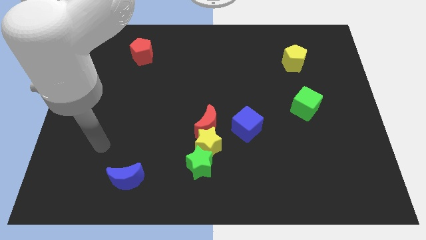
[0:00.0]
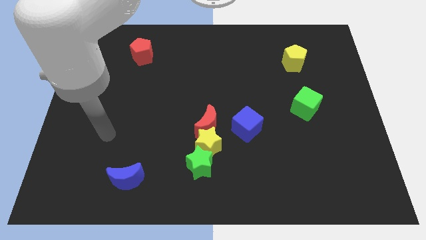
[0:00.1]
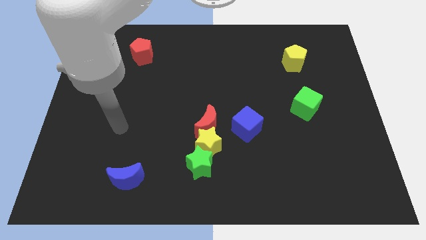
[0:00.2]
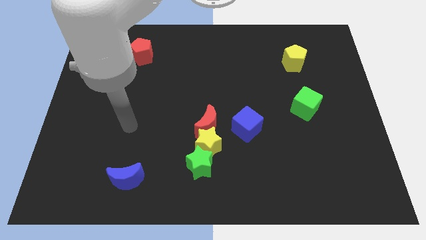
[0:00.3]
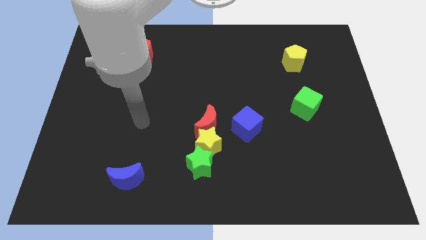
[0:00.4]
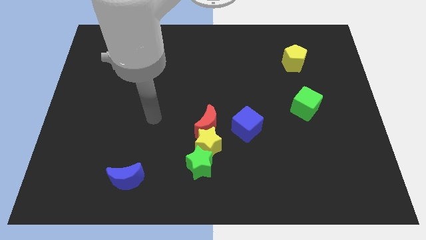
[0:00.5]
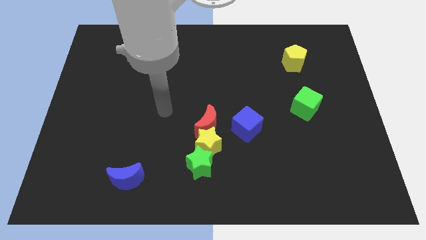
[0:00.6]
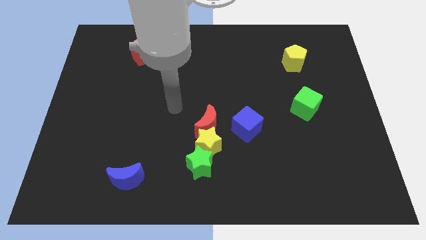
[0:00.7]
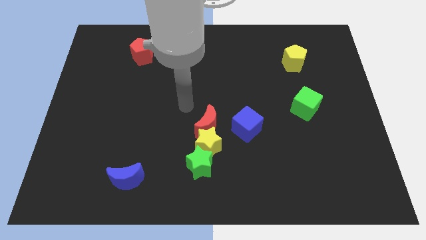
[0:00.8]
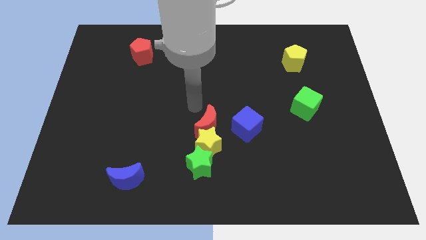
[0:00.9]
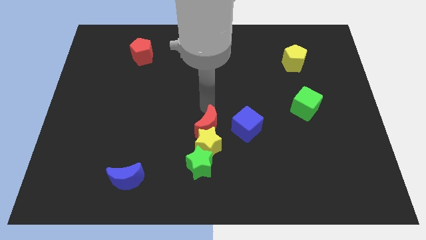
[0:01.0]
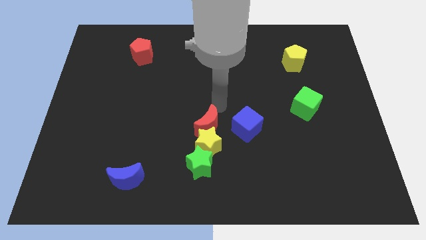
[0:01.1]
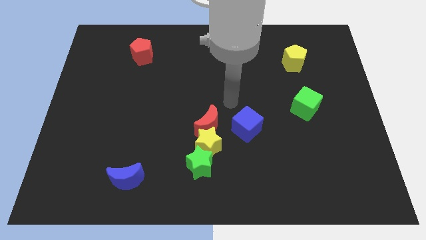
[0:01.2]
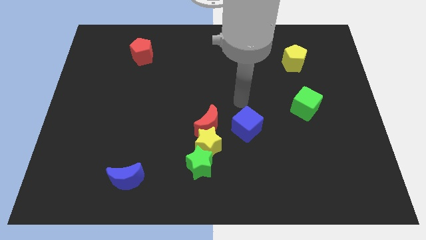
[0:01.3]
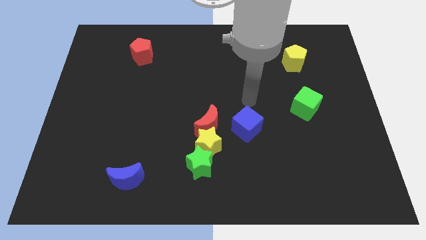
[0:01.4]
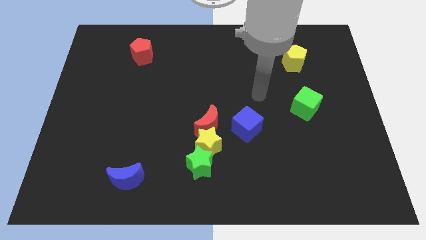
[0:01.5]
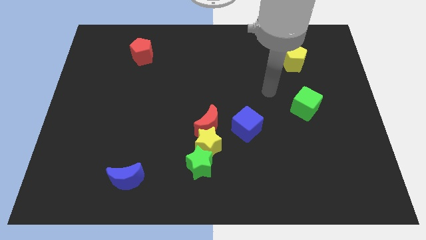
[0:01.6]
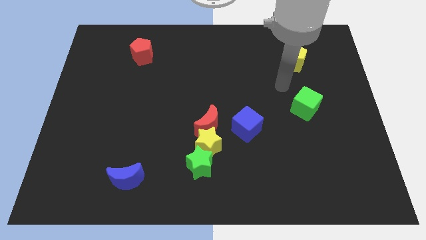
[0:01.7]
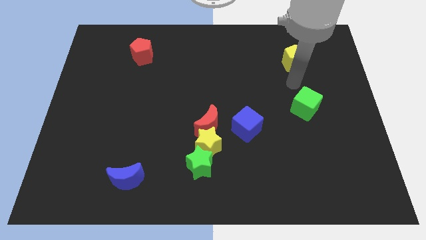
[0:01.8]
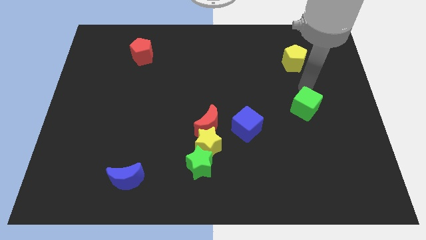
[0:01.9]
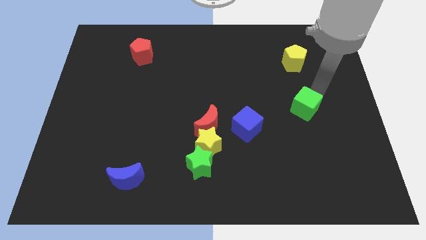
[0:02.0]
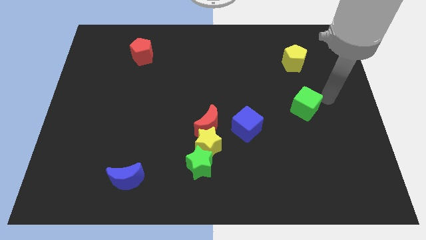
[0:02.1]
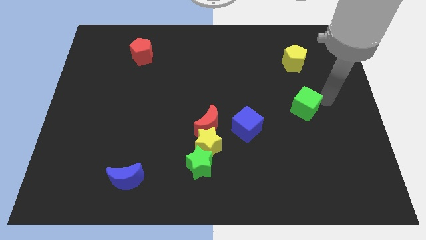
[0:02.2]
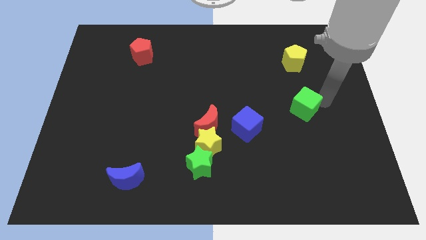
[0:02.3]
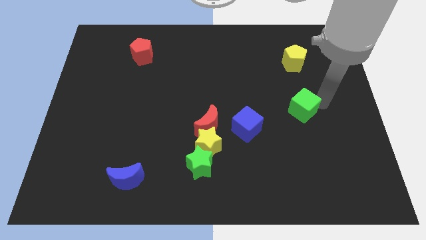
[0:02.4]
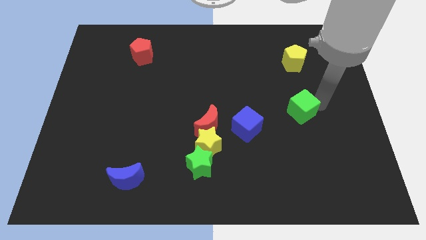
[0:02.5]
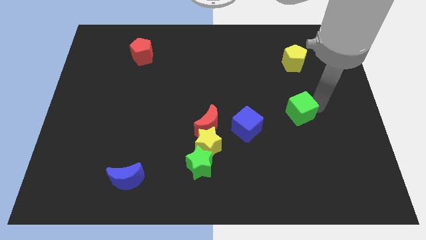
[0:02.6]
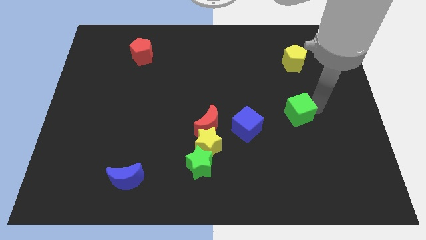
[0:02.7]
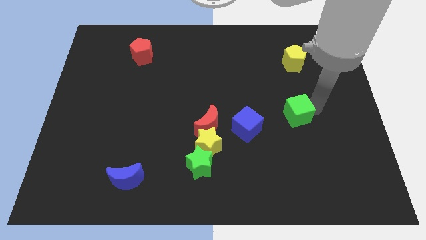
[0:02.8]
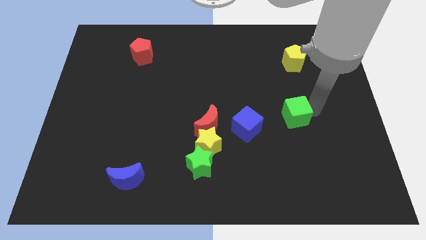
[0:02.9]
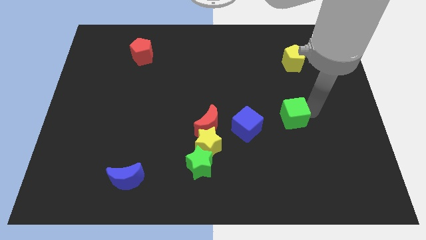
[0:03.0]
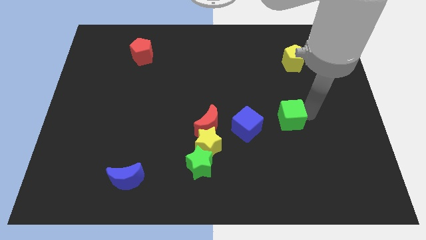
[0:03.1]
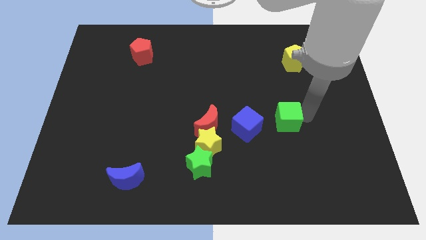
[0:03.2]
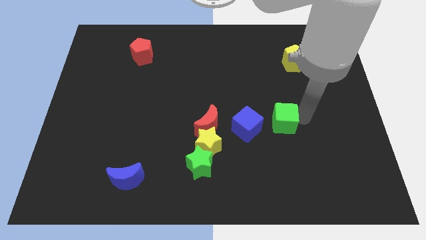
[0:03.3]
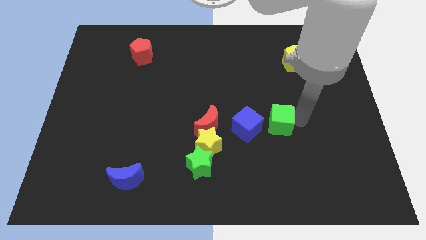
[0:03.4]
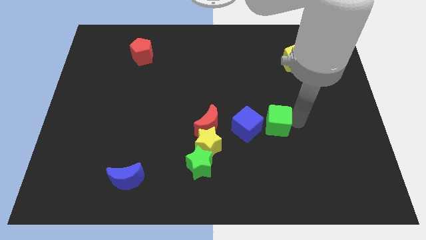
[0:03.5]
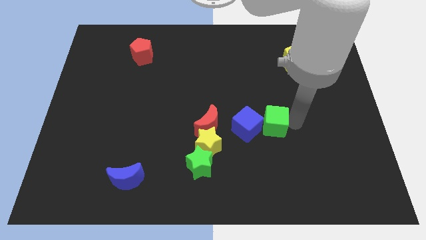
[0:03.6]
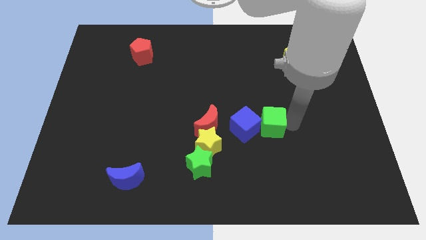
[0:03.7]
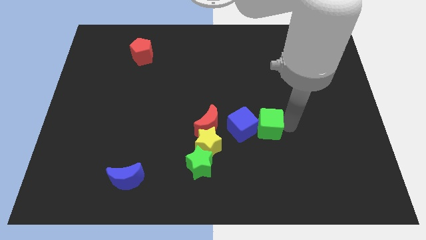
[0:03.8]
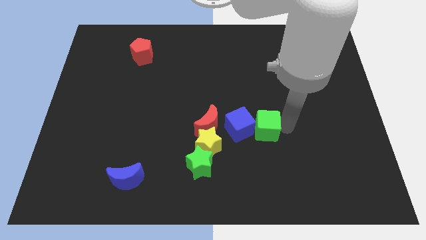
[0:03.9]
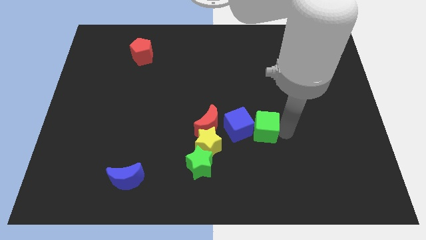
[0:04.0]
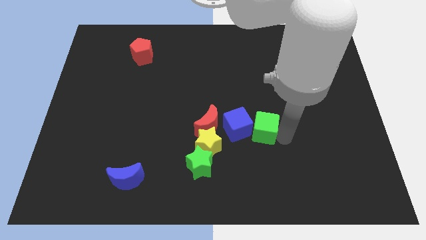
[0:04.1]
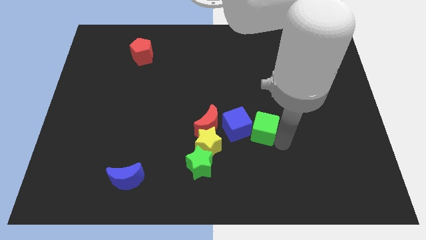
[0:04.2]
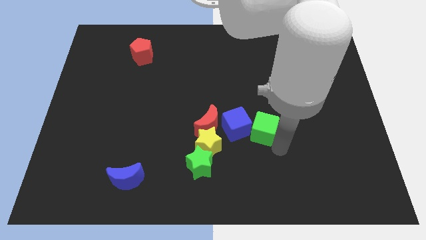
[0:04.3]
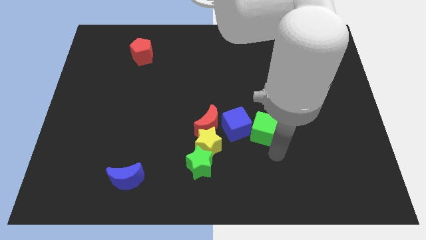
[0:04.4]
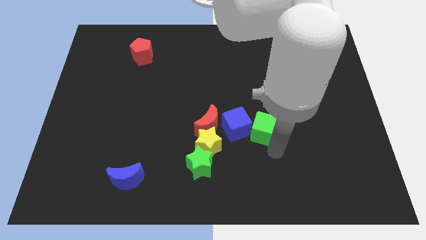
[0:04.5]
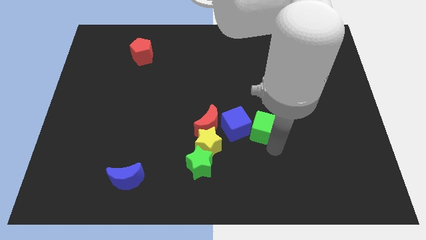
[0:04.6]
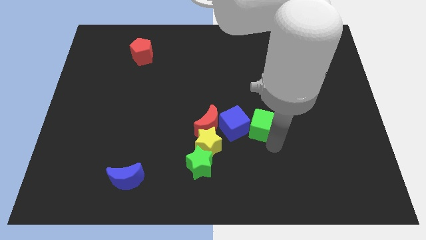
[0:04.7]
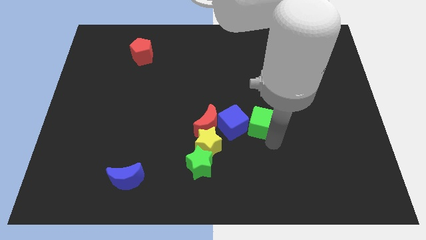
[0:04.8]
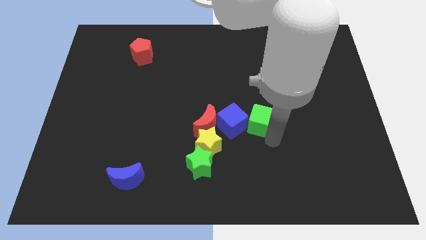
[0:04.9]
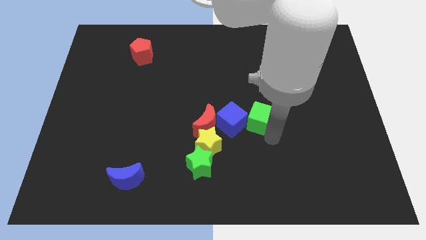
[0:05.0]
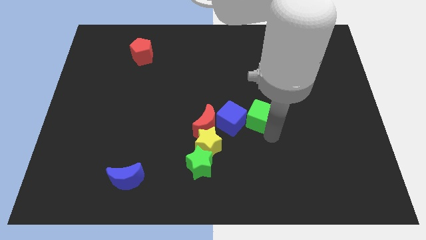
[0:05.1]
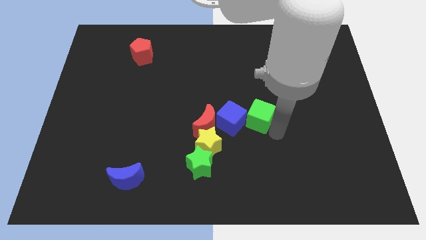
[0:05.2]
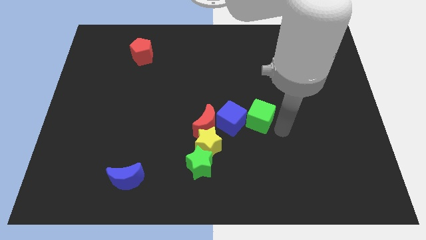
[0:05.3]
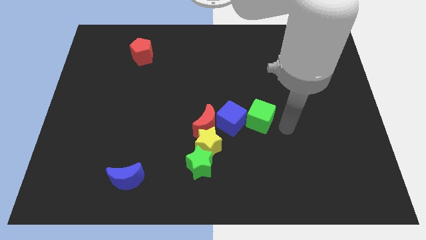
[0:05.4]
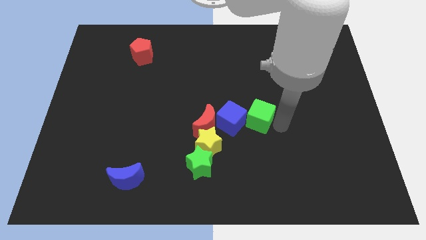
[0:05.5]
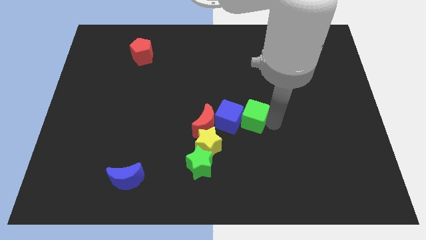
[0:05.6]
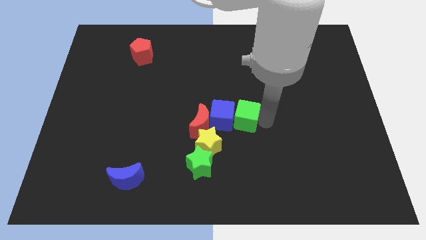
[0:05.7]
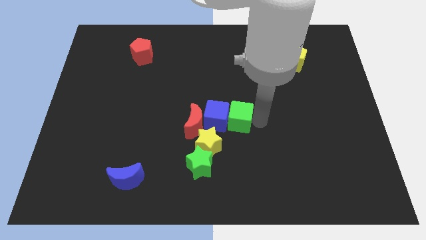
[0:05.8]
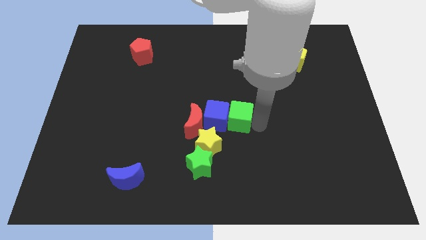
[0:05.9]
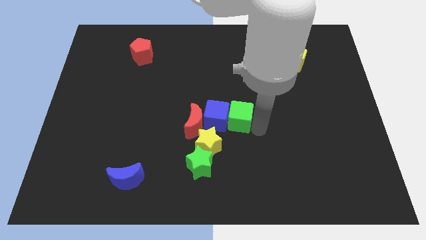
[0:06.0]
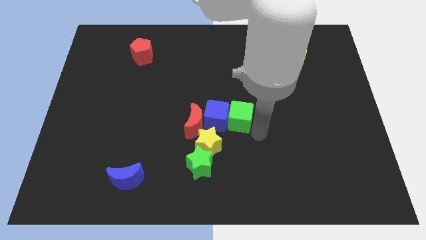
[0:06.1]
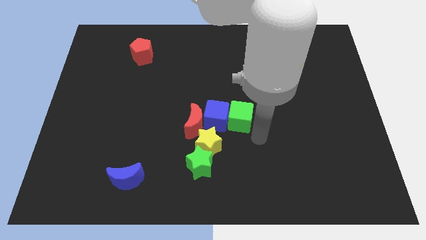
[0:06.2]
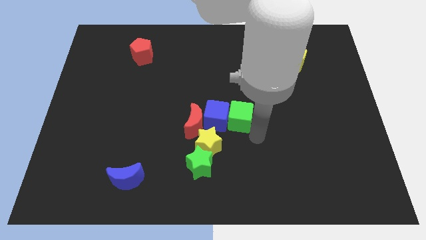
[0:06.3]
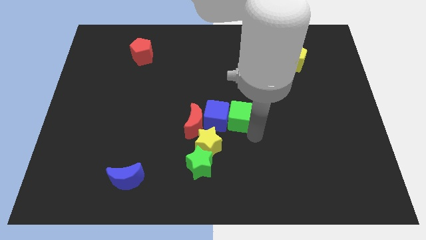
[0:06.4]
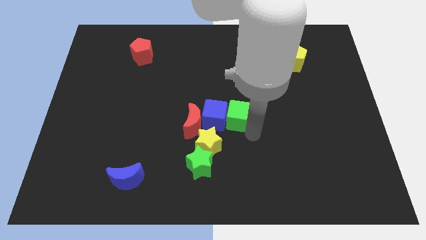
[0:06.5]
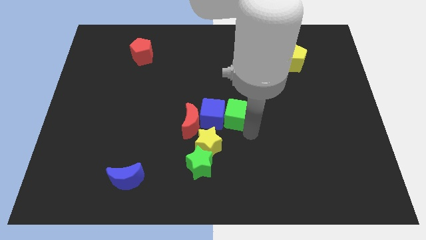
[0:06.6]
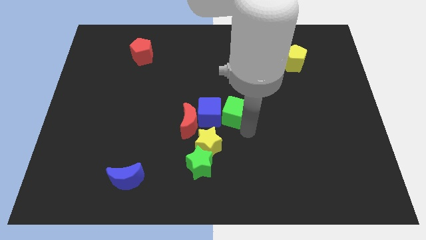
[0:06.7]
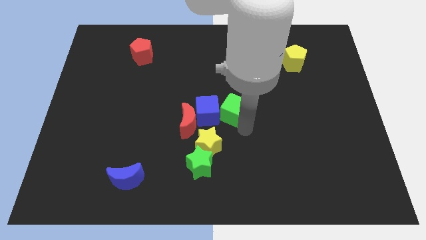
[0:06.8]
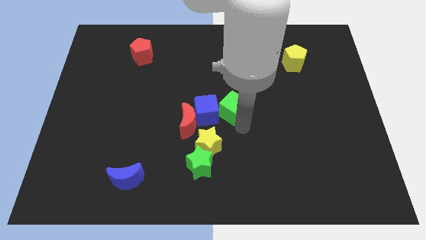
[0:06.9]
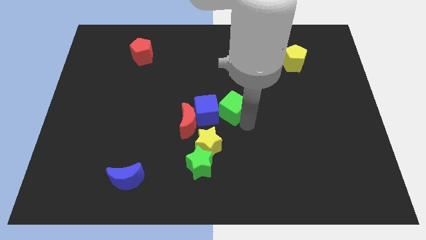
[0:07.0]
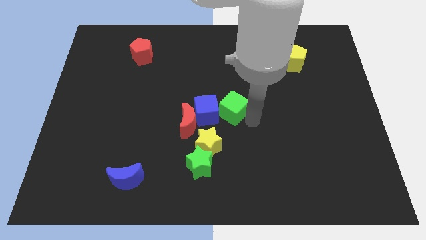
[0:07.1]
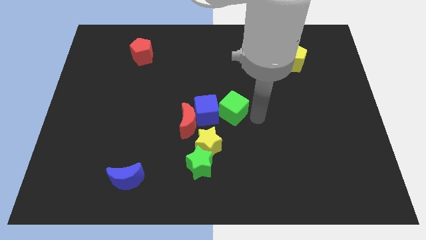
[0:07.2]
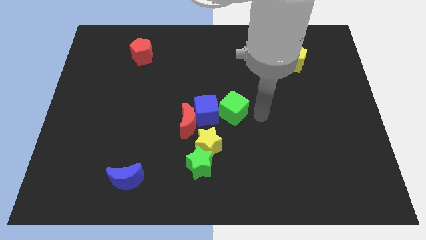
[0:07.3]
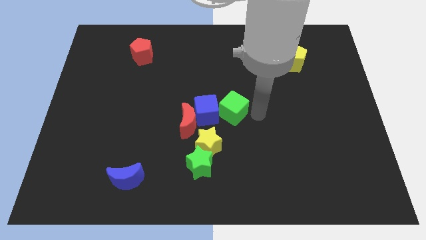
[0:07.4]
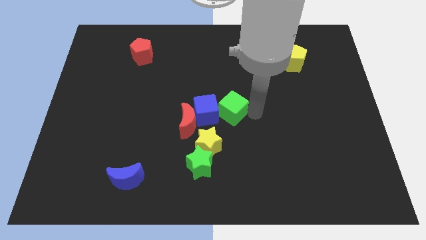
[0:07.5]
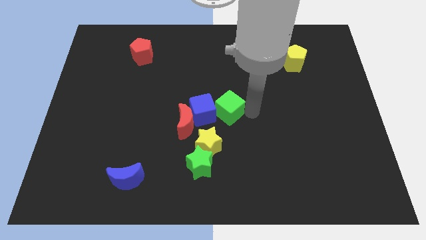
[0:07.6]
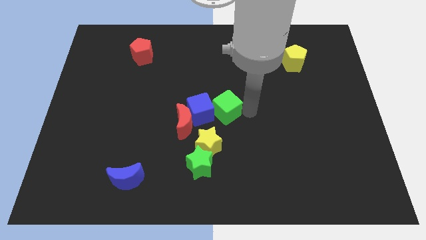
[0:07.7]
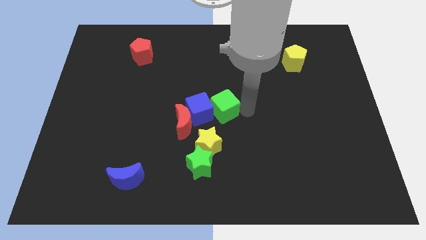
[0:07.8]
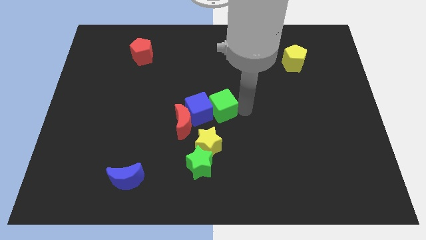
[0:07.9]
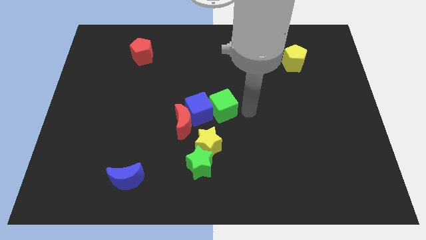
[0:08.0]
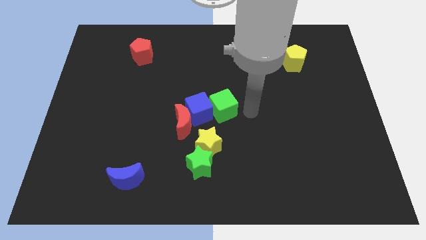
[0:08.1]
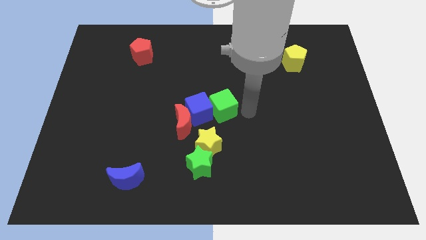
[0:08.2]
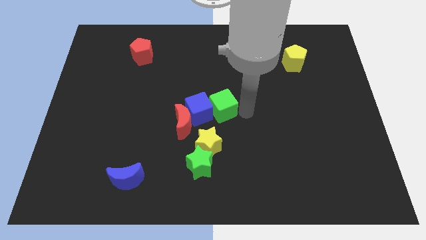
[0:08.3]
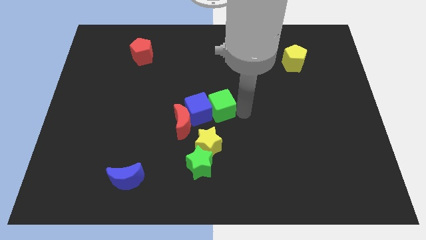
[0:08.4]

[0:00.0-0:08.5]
move the green cube left
